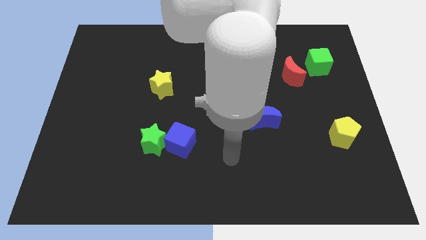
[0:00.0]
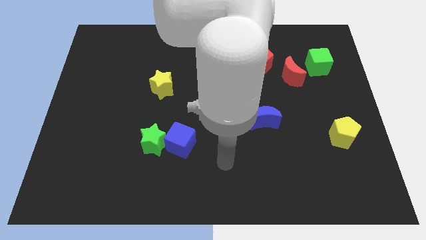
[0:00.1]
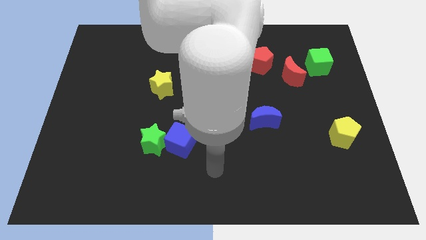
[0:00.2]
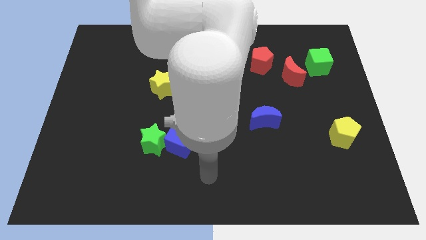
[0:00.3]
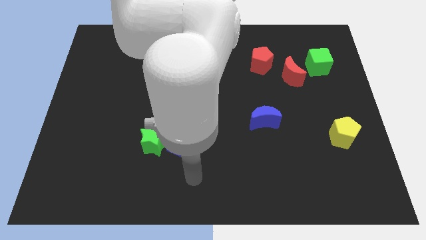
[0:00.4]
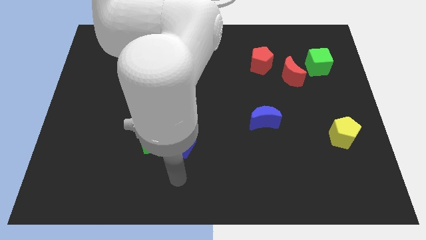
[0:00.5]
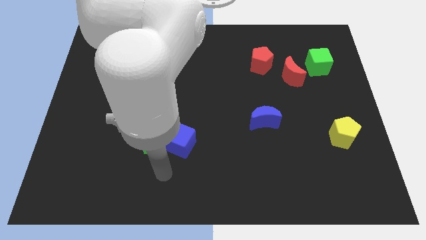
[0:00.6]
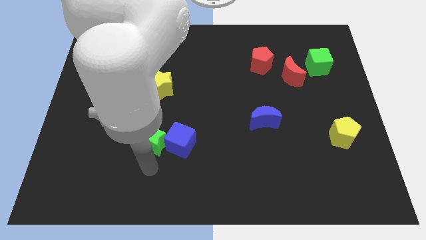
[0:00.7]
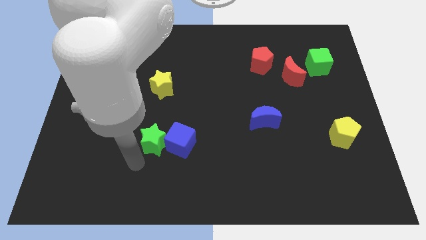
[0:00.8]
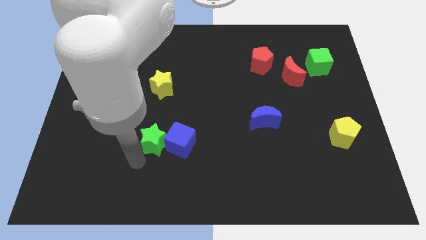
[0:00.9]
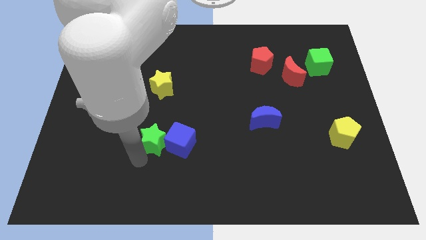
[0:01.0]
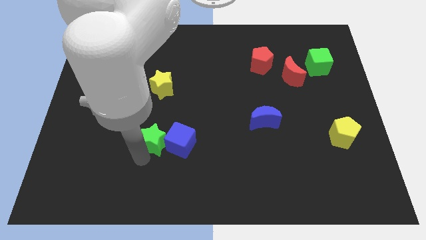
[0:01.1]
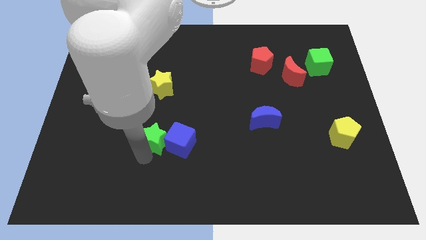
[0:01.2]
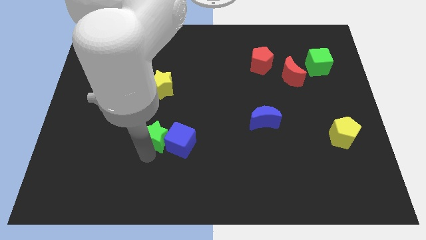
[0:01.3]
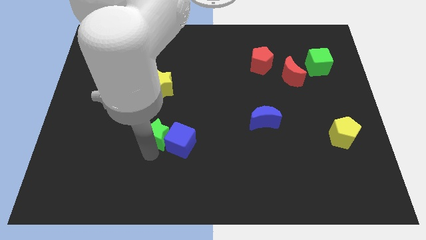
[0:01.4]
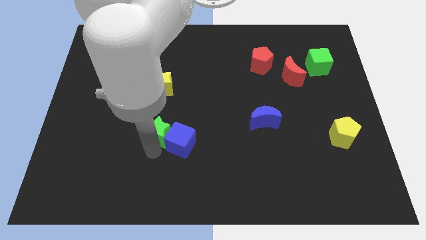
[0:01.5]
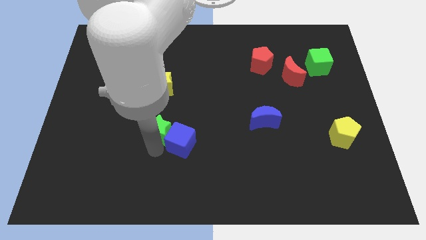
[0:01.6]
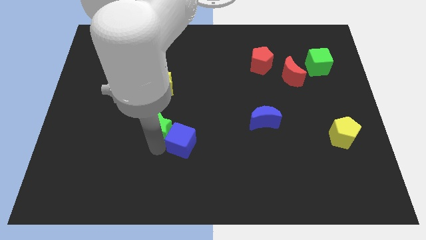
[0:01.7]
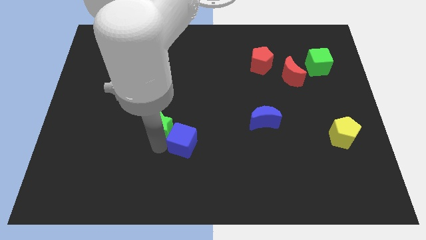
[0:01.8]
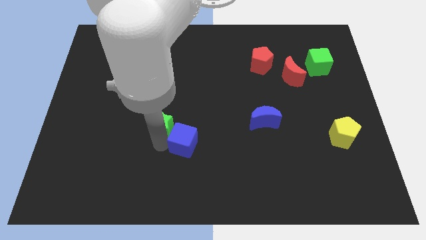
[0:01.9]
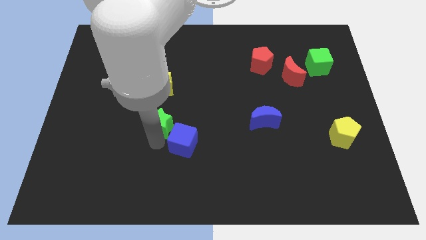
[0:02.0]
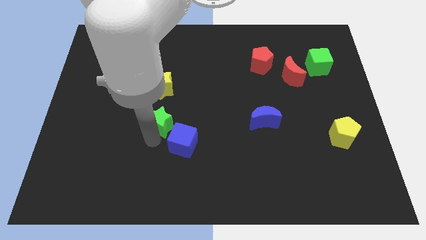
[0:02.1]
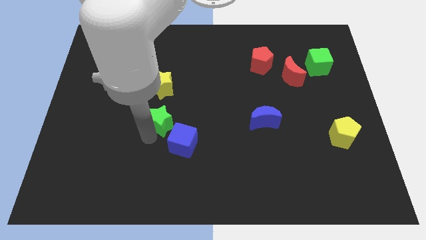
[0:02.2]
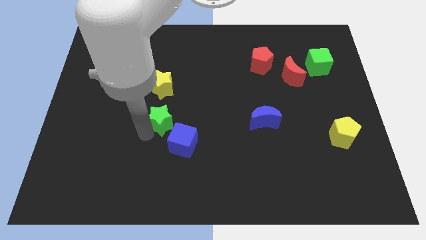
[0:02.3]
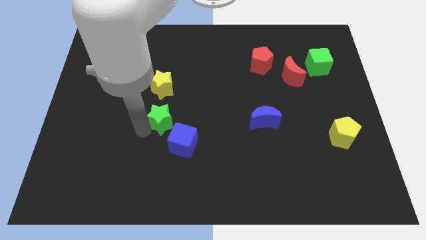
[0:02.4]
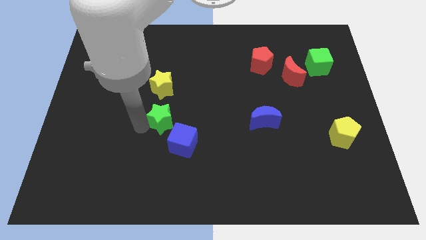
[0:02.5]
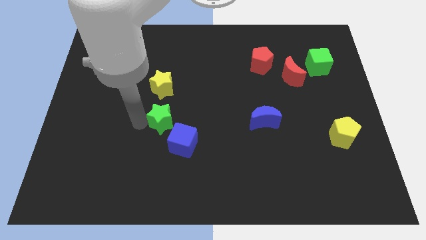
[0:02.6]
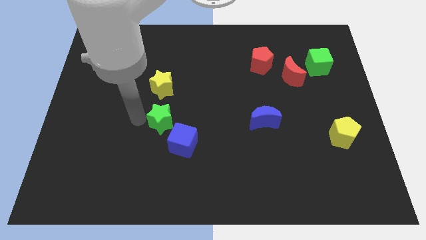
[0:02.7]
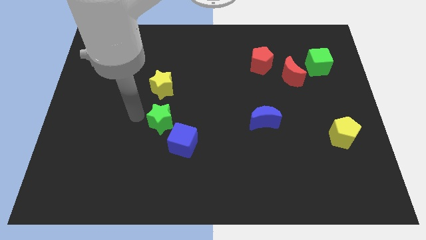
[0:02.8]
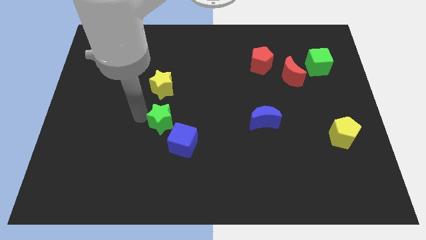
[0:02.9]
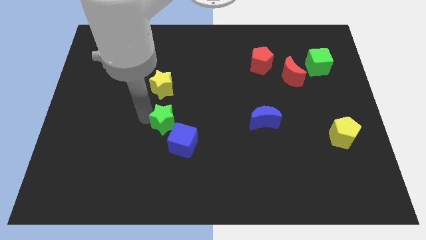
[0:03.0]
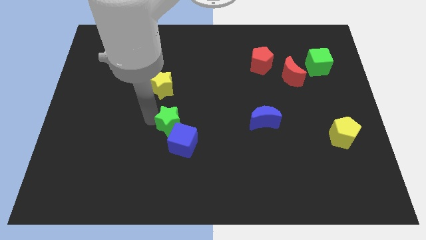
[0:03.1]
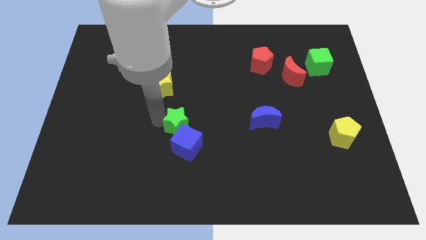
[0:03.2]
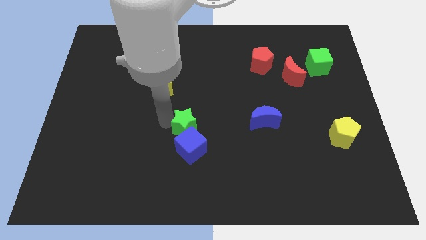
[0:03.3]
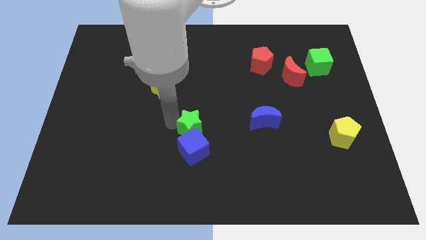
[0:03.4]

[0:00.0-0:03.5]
push the green star to the right slightly

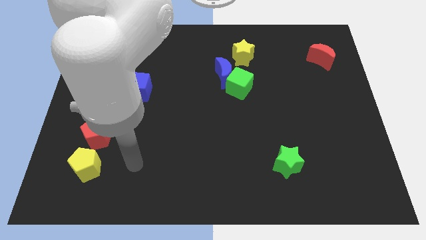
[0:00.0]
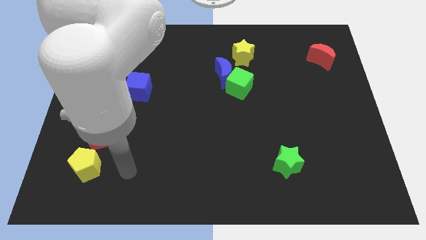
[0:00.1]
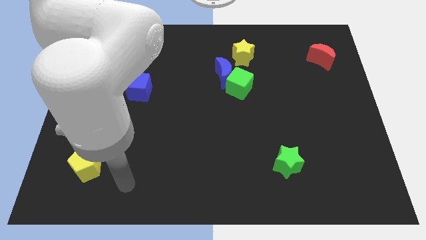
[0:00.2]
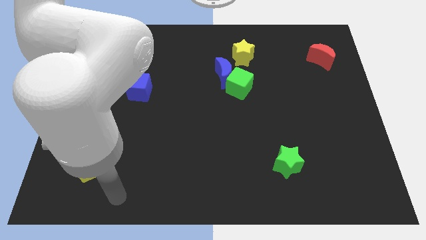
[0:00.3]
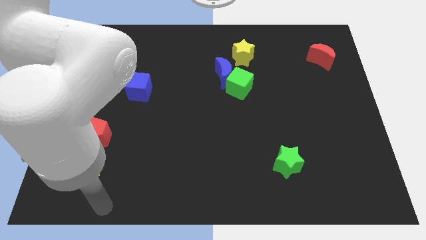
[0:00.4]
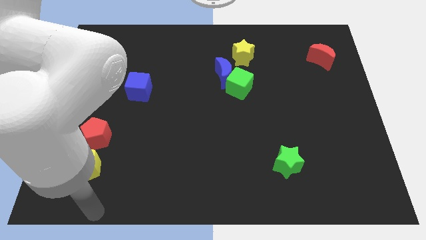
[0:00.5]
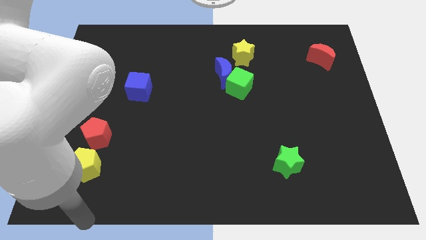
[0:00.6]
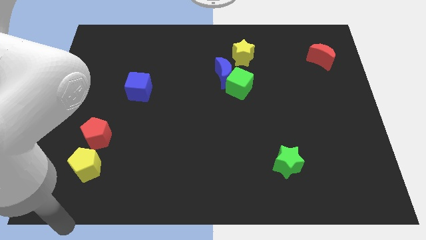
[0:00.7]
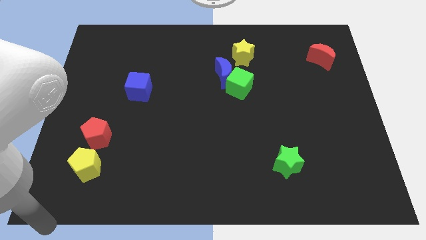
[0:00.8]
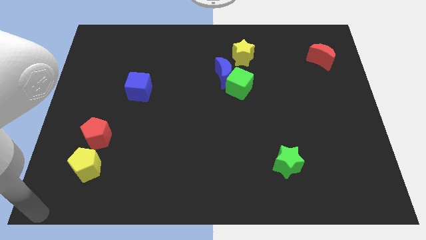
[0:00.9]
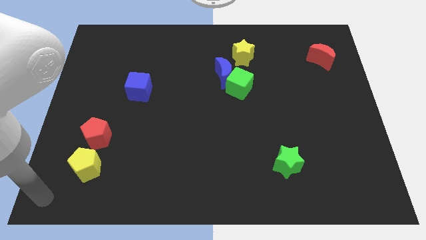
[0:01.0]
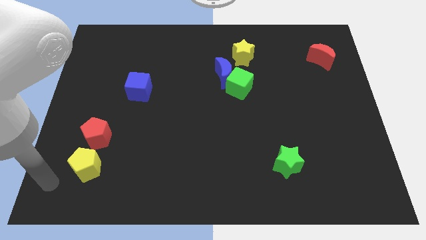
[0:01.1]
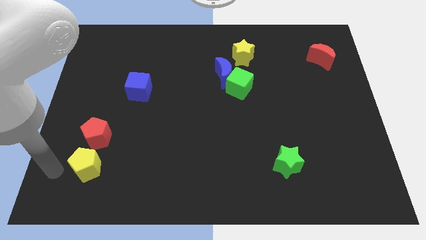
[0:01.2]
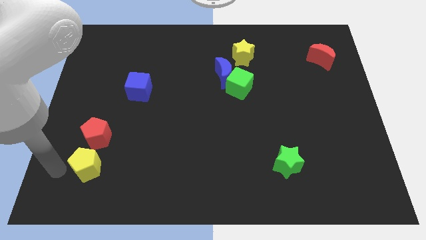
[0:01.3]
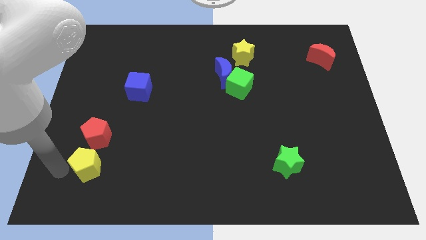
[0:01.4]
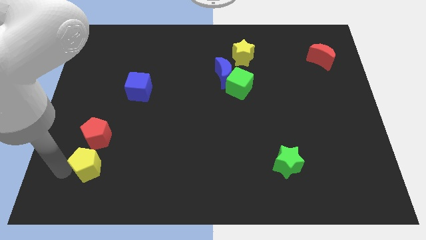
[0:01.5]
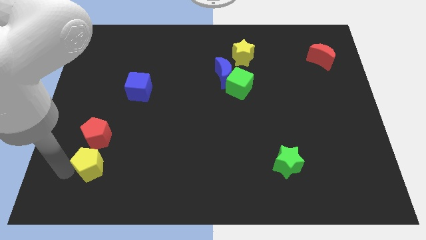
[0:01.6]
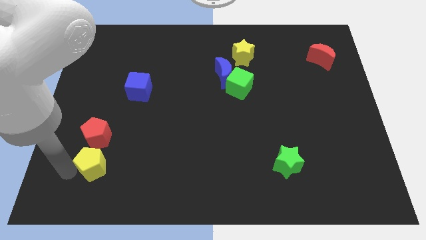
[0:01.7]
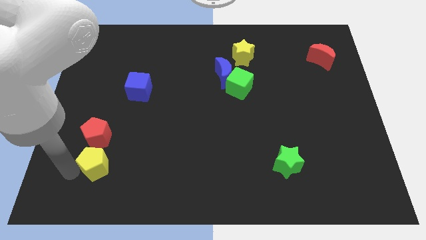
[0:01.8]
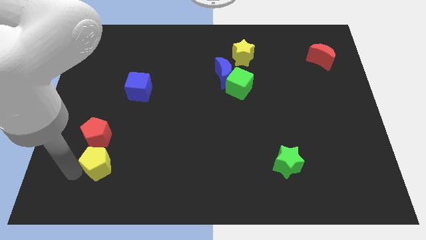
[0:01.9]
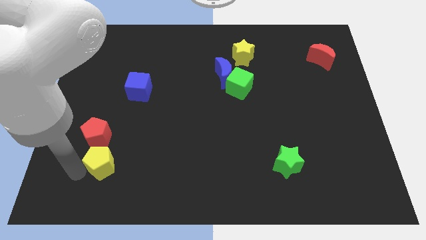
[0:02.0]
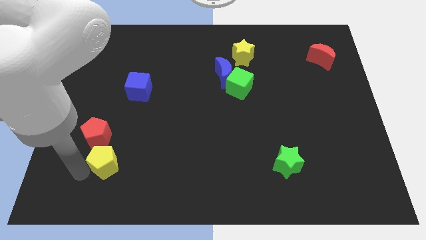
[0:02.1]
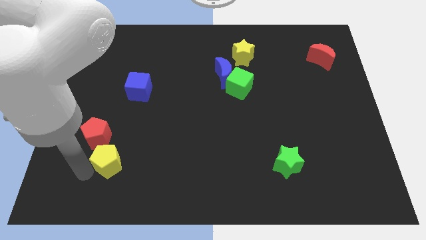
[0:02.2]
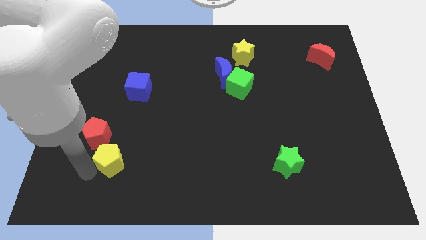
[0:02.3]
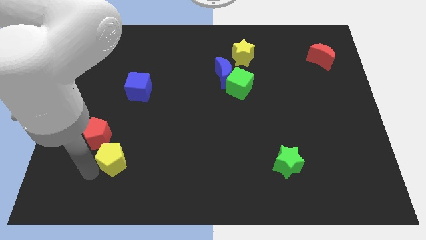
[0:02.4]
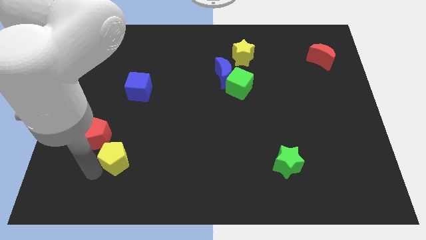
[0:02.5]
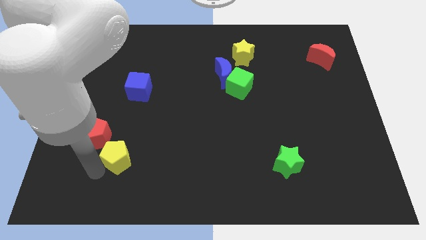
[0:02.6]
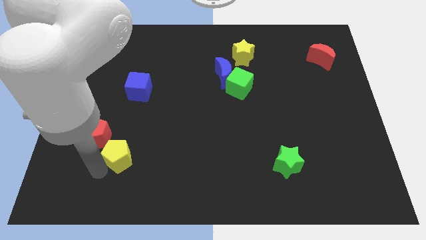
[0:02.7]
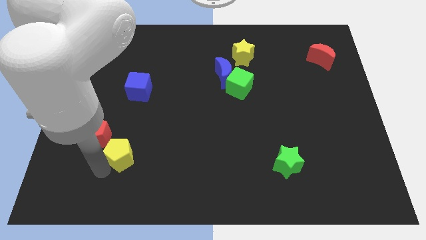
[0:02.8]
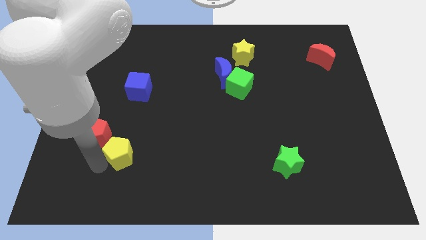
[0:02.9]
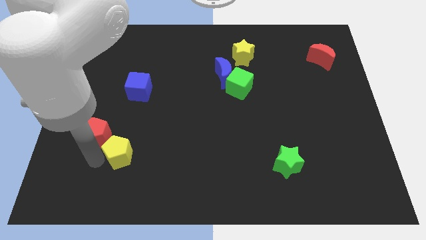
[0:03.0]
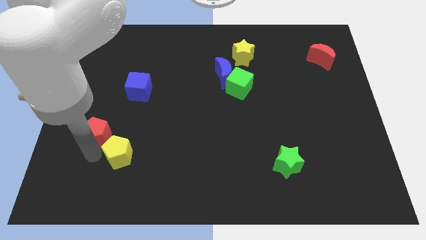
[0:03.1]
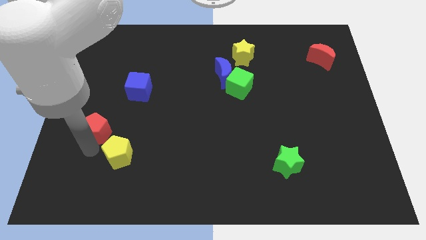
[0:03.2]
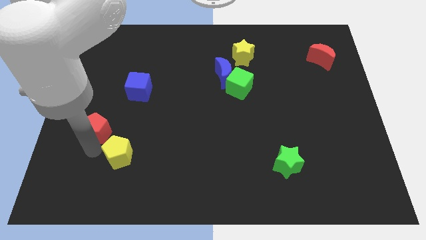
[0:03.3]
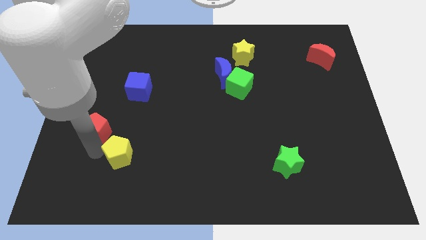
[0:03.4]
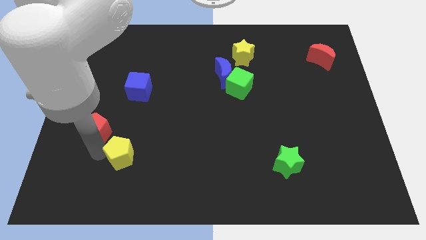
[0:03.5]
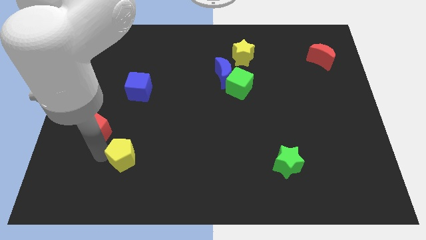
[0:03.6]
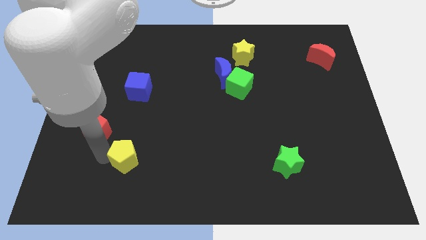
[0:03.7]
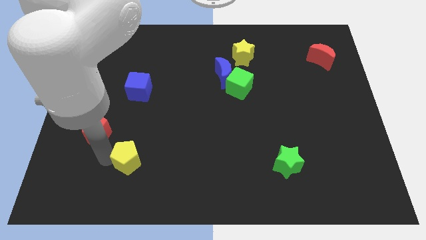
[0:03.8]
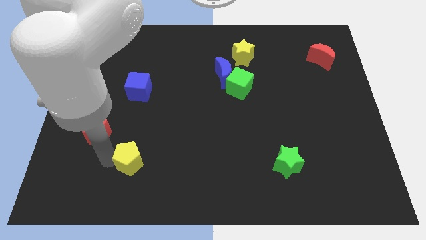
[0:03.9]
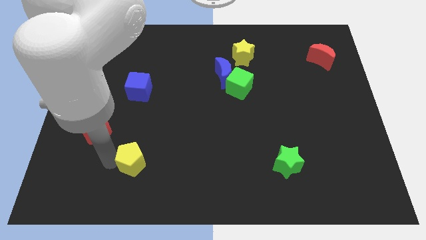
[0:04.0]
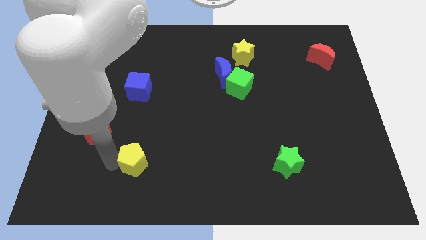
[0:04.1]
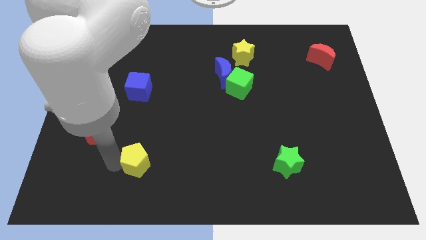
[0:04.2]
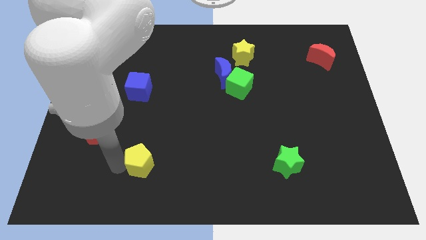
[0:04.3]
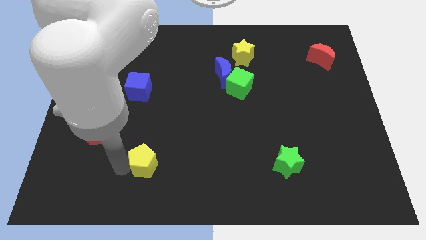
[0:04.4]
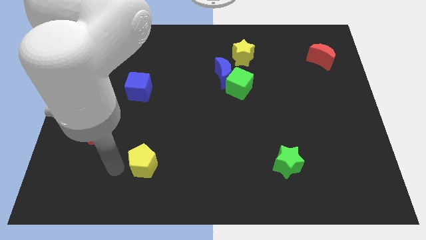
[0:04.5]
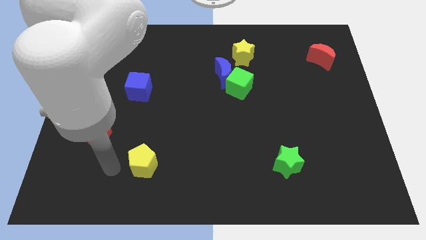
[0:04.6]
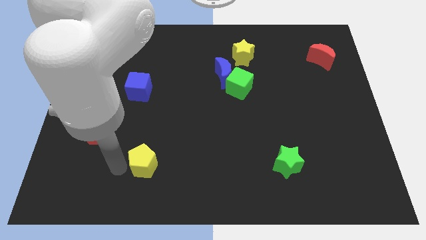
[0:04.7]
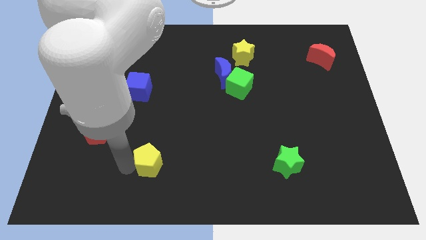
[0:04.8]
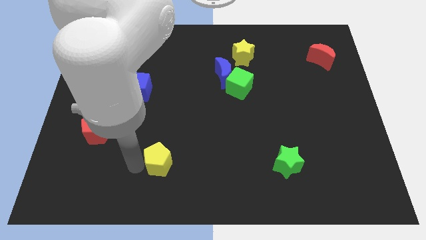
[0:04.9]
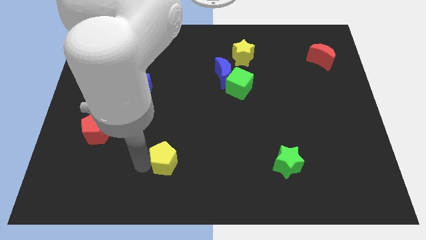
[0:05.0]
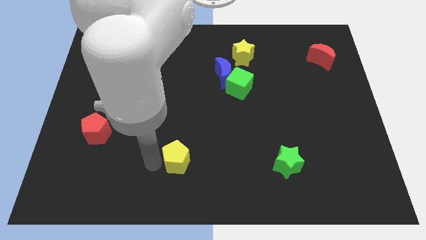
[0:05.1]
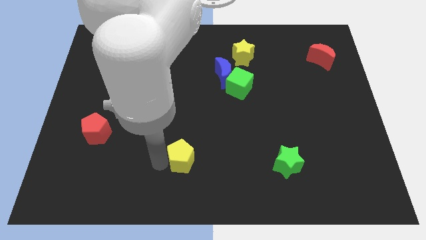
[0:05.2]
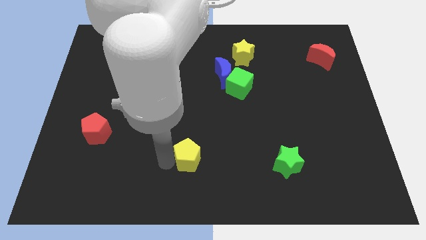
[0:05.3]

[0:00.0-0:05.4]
slide the yellow pentagon to the right
